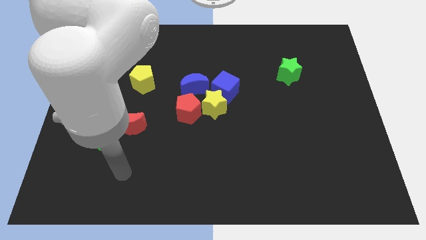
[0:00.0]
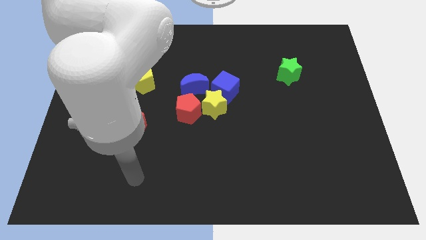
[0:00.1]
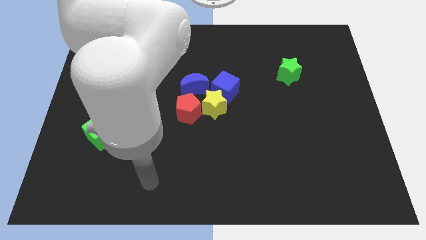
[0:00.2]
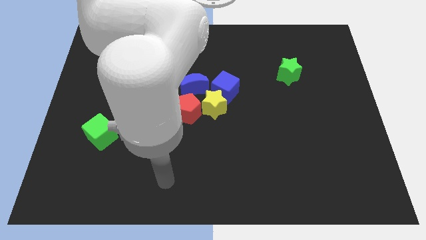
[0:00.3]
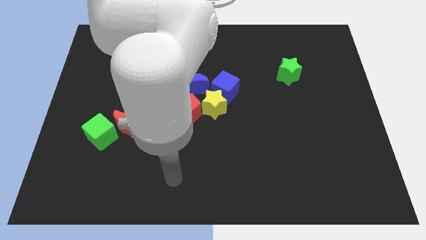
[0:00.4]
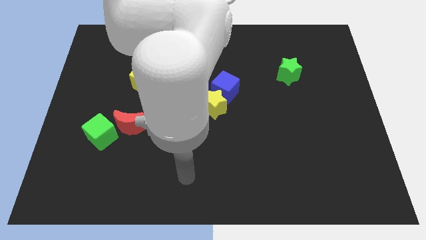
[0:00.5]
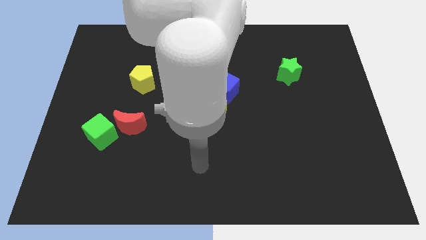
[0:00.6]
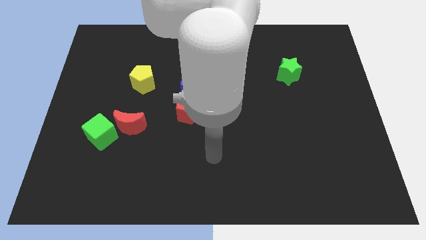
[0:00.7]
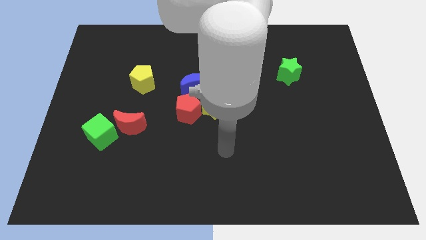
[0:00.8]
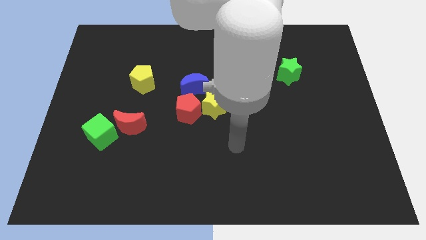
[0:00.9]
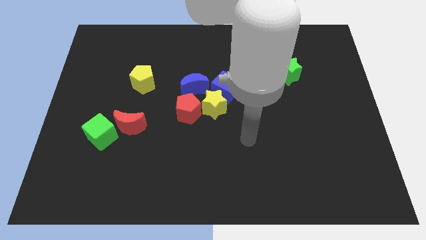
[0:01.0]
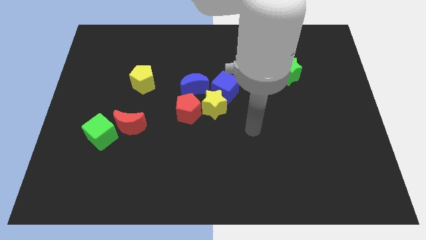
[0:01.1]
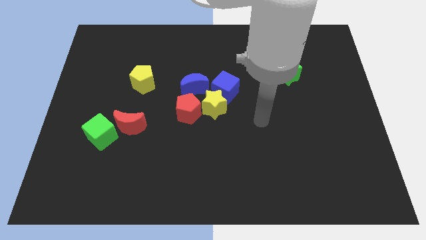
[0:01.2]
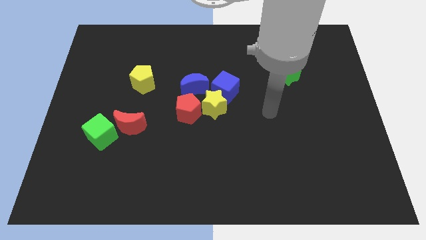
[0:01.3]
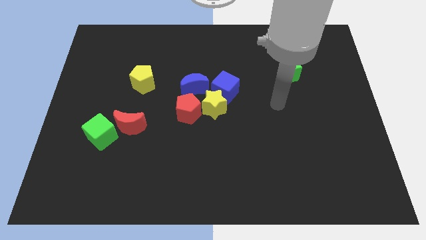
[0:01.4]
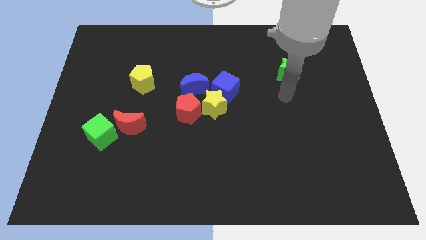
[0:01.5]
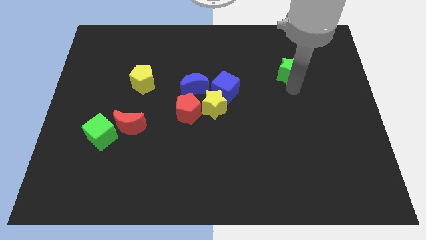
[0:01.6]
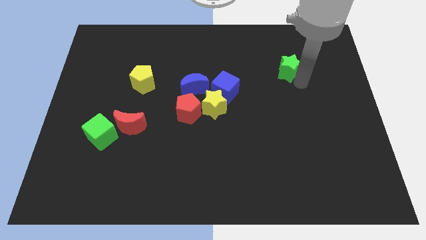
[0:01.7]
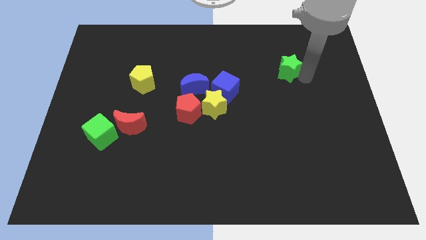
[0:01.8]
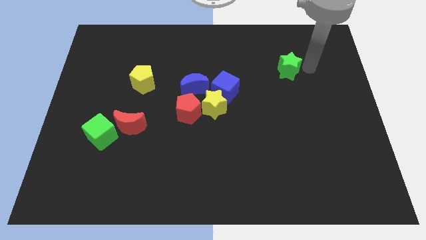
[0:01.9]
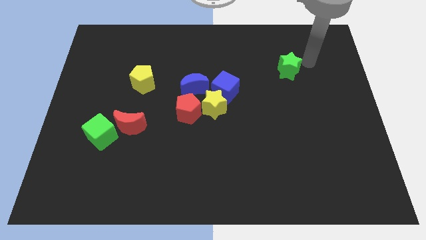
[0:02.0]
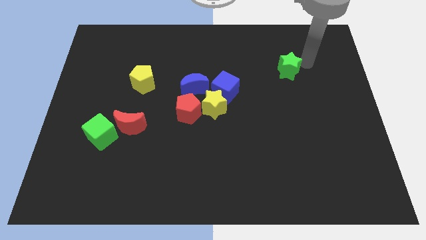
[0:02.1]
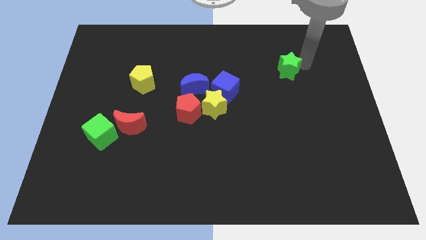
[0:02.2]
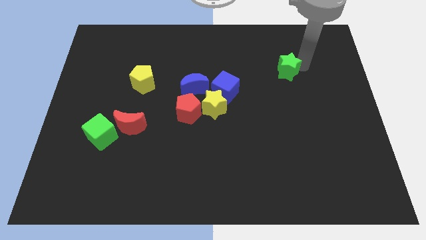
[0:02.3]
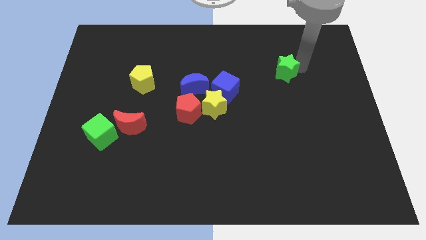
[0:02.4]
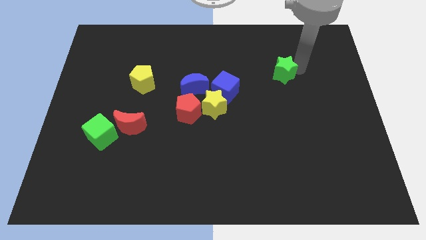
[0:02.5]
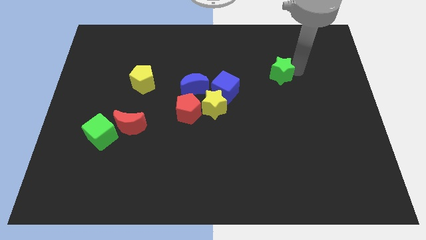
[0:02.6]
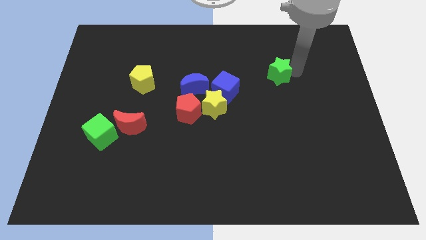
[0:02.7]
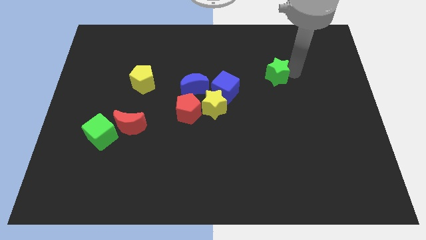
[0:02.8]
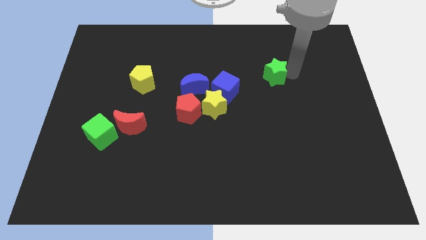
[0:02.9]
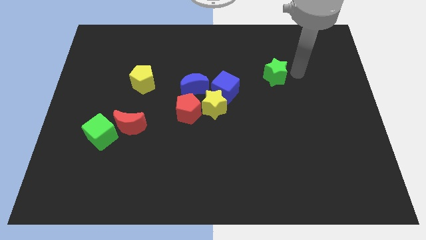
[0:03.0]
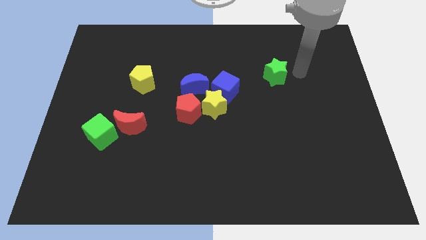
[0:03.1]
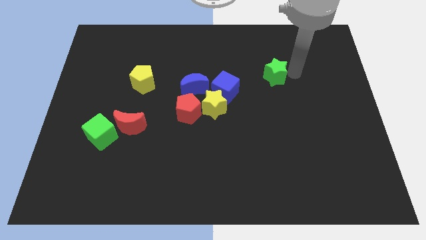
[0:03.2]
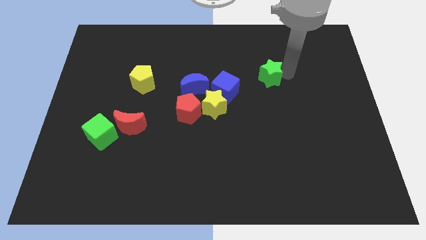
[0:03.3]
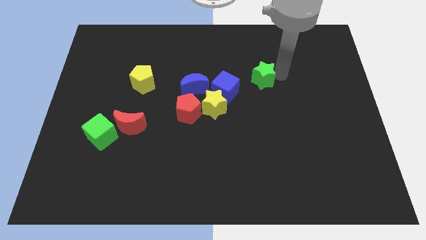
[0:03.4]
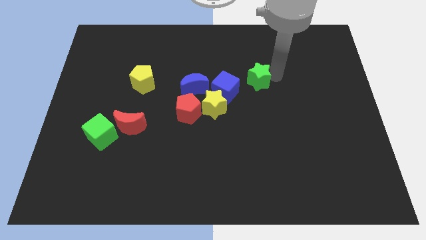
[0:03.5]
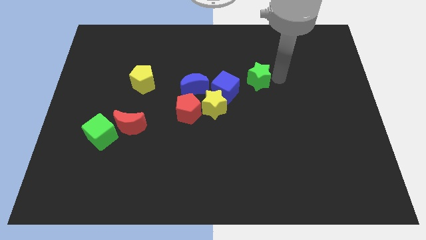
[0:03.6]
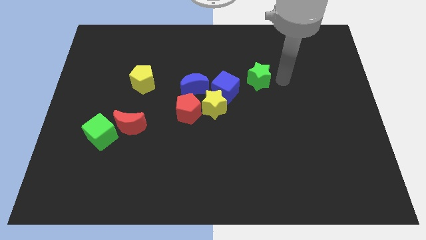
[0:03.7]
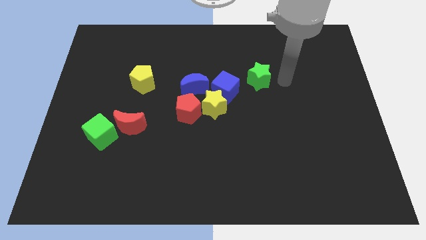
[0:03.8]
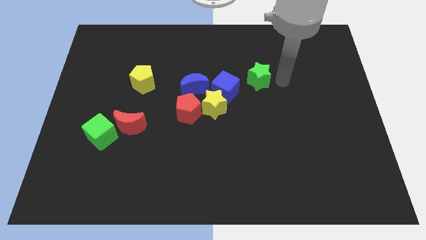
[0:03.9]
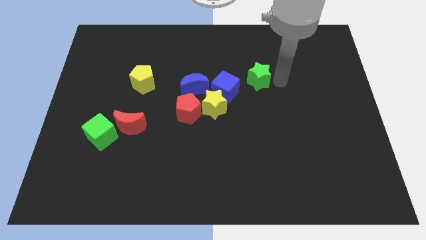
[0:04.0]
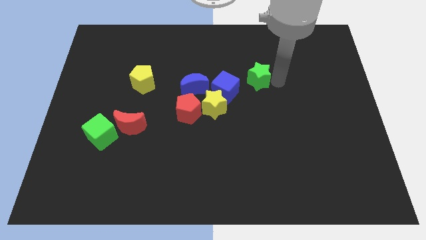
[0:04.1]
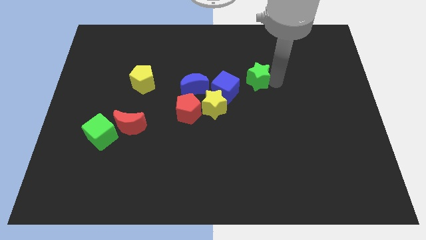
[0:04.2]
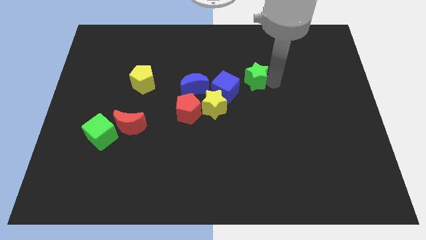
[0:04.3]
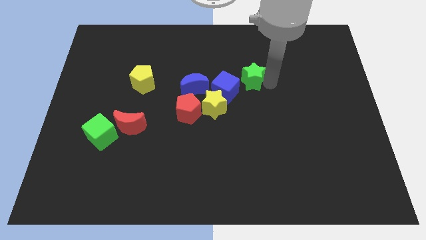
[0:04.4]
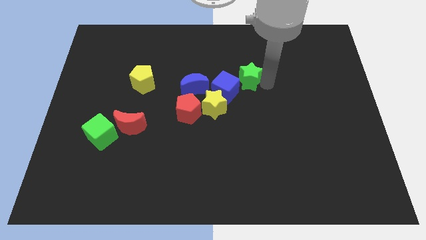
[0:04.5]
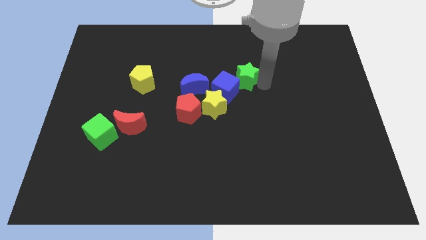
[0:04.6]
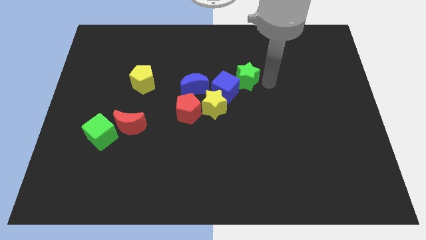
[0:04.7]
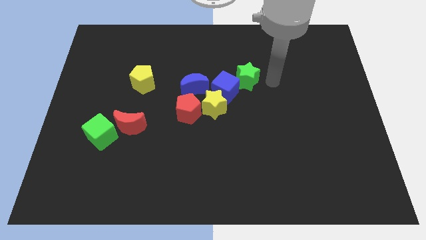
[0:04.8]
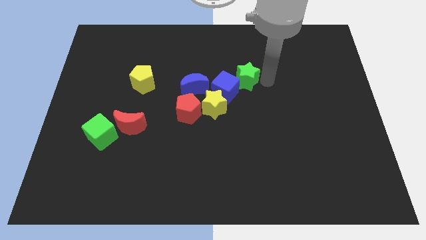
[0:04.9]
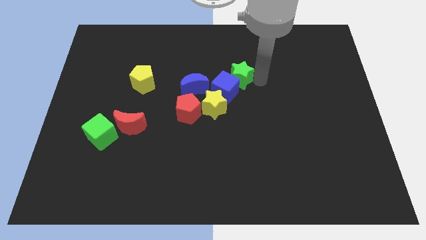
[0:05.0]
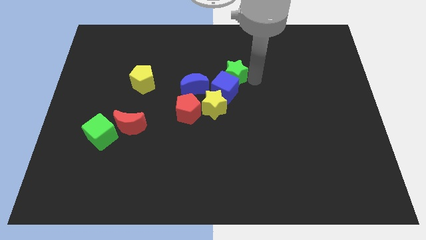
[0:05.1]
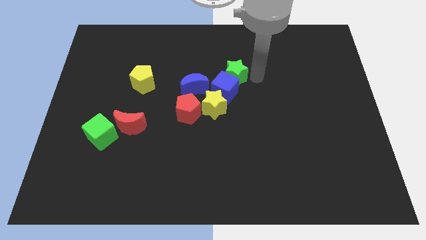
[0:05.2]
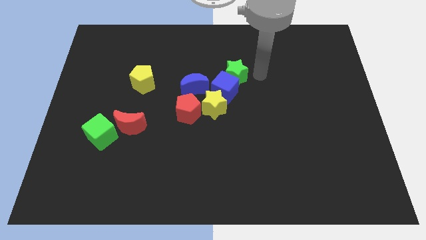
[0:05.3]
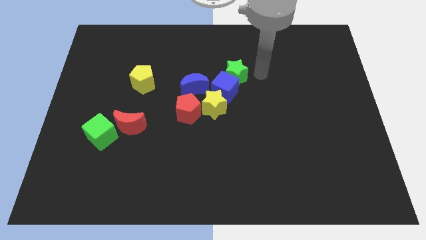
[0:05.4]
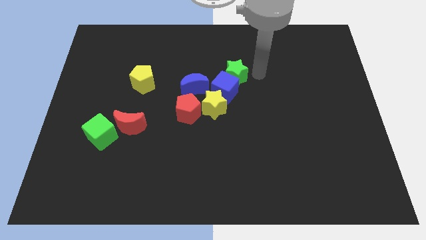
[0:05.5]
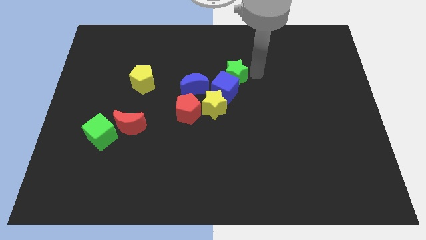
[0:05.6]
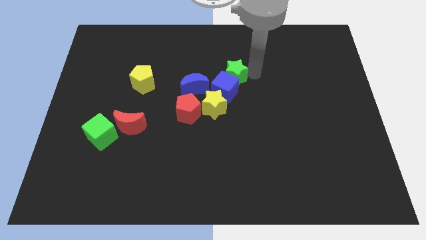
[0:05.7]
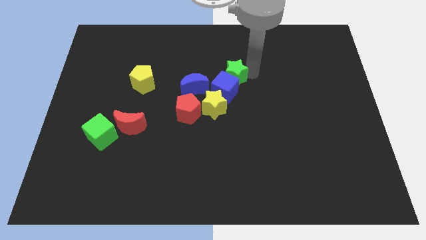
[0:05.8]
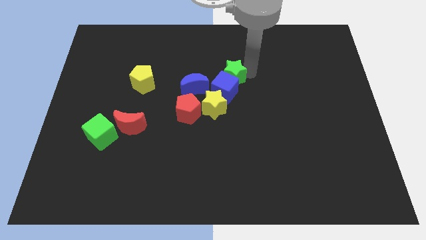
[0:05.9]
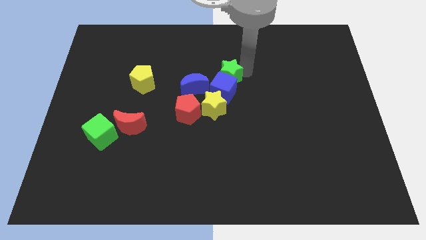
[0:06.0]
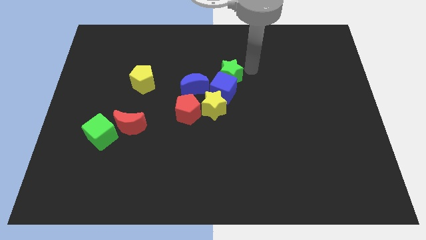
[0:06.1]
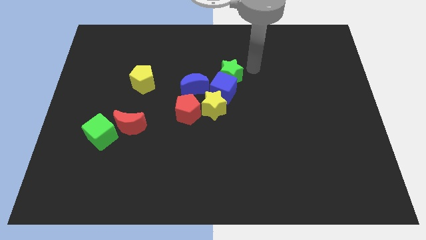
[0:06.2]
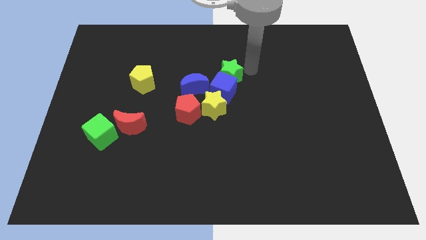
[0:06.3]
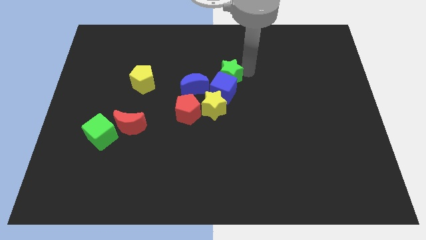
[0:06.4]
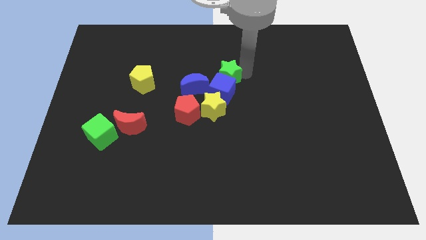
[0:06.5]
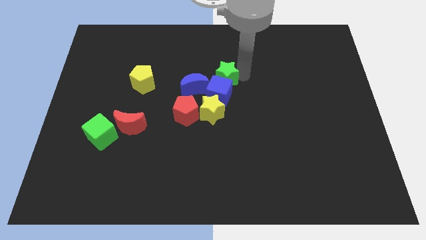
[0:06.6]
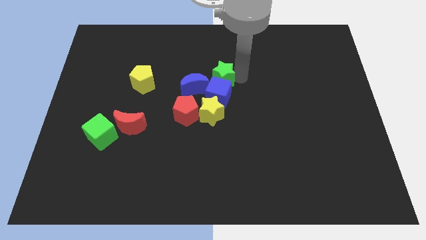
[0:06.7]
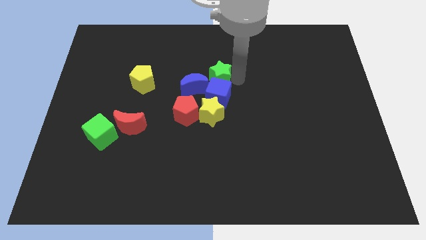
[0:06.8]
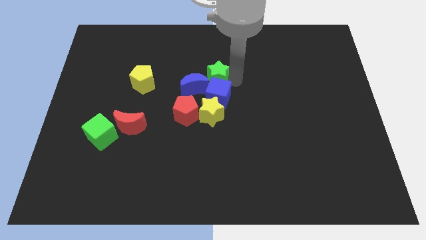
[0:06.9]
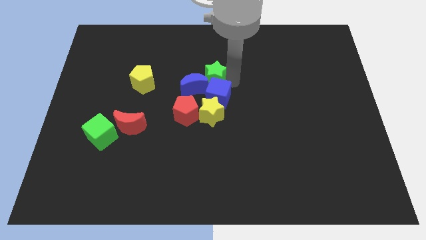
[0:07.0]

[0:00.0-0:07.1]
slide the green star next to the blue moon

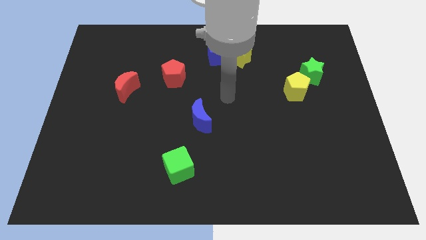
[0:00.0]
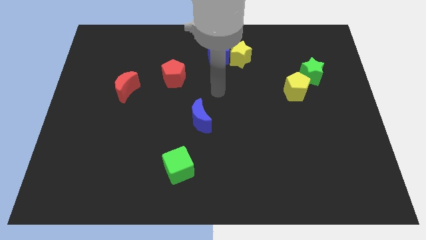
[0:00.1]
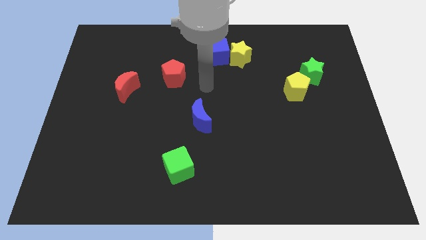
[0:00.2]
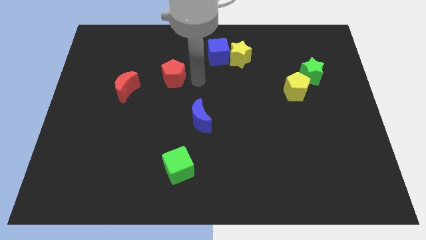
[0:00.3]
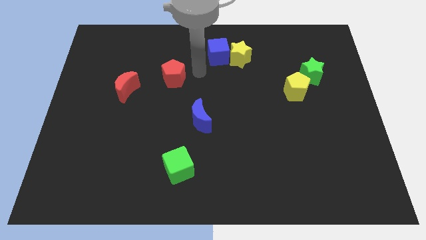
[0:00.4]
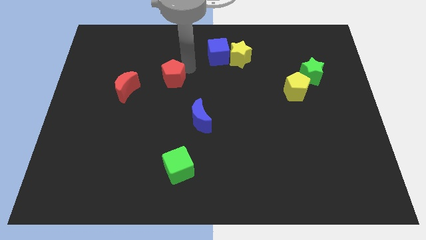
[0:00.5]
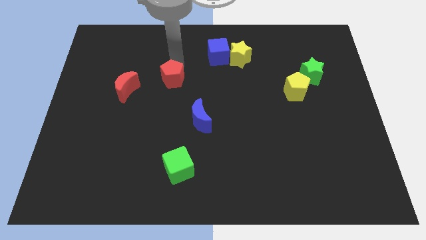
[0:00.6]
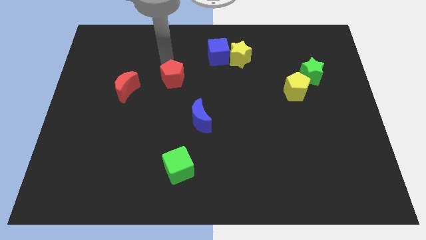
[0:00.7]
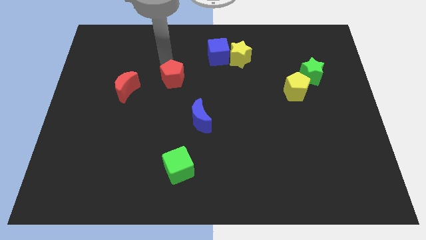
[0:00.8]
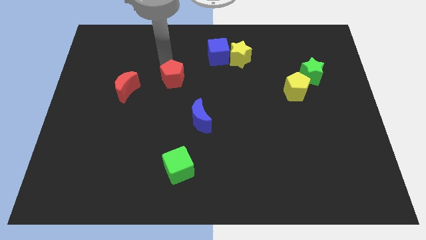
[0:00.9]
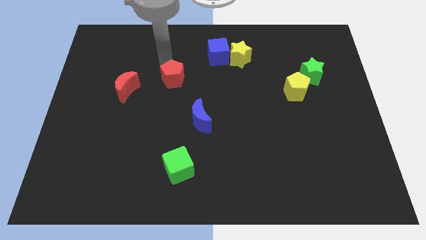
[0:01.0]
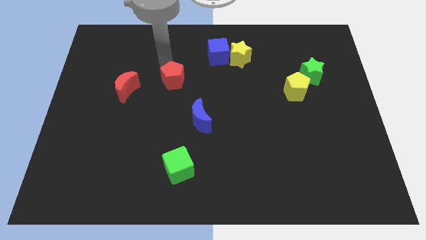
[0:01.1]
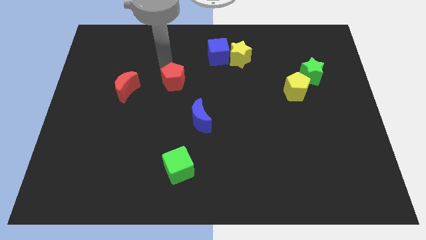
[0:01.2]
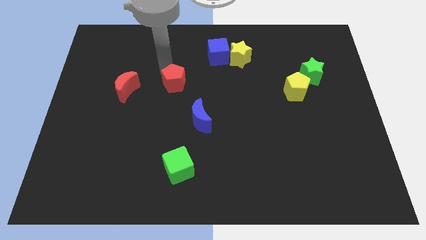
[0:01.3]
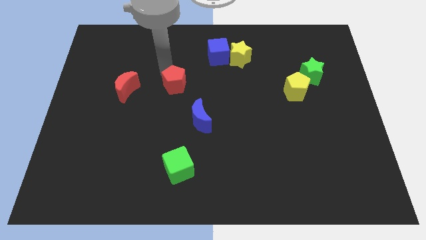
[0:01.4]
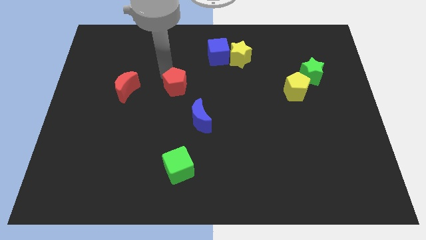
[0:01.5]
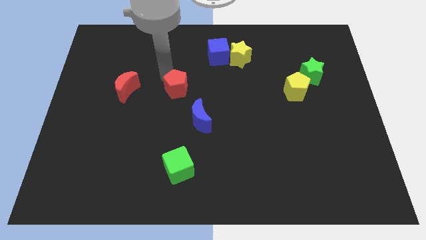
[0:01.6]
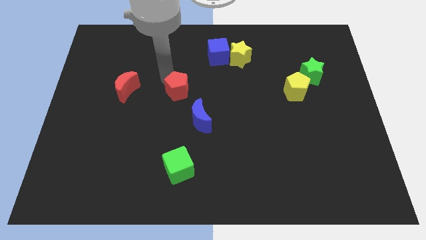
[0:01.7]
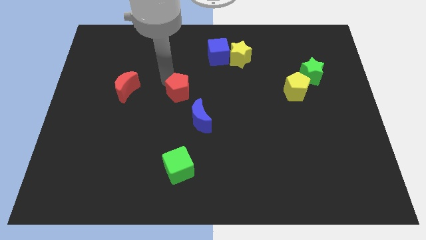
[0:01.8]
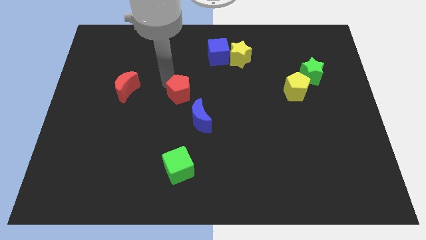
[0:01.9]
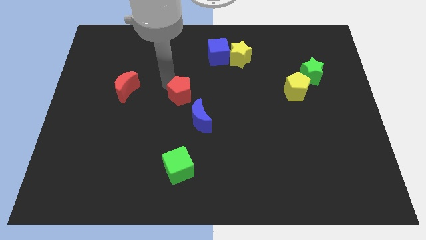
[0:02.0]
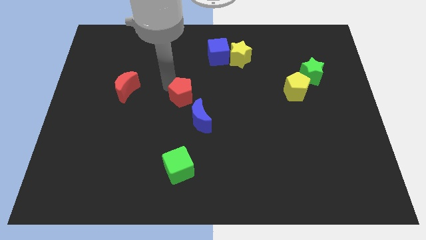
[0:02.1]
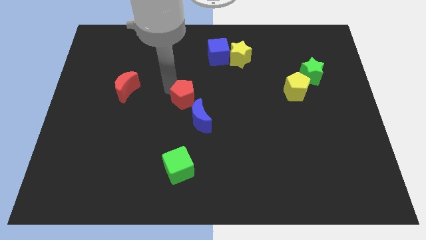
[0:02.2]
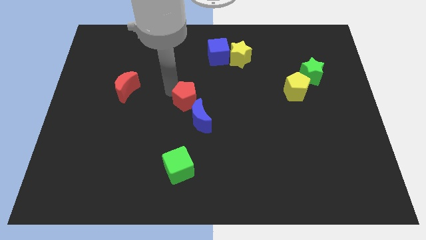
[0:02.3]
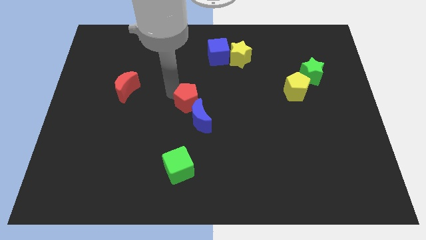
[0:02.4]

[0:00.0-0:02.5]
push the red pentagon close to the blue moon
